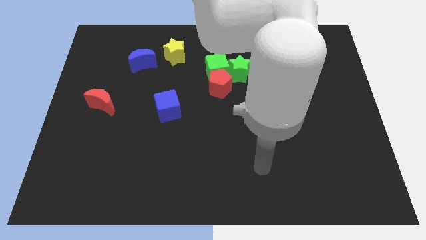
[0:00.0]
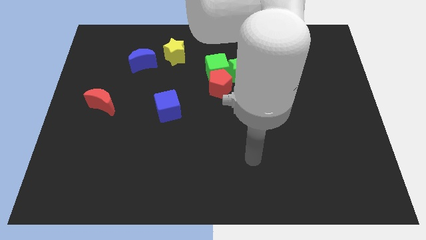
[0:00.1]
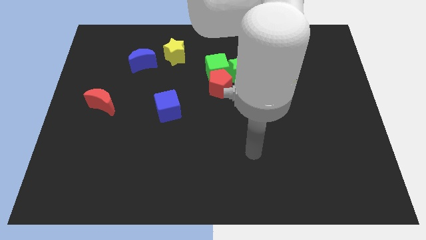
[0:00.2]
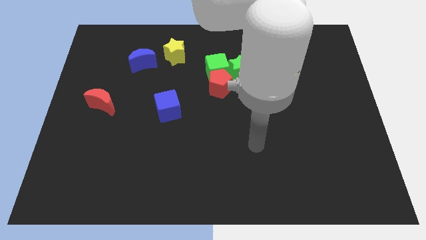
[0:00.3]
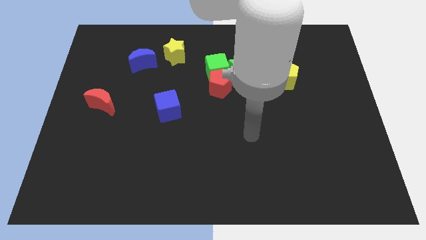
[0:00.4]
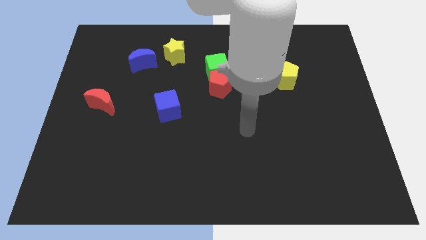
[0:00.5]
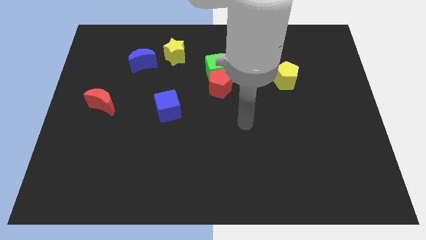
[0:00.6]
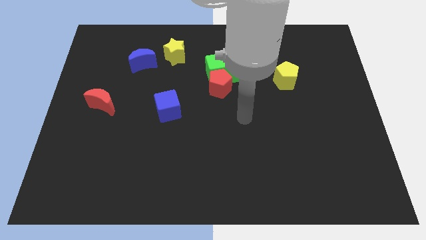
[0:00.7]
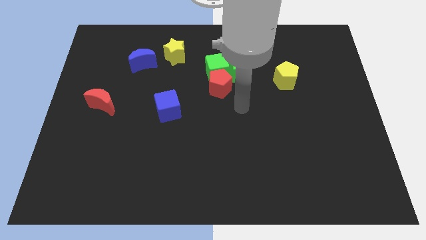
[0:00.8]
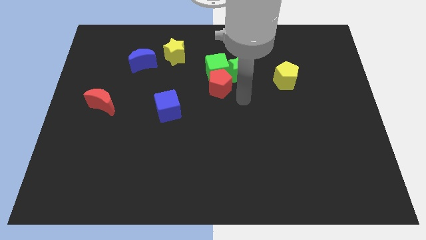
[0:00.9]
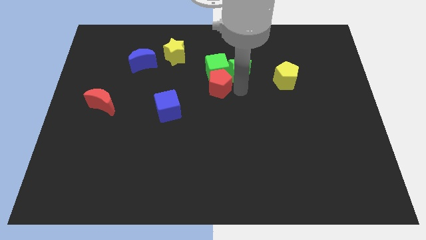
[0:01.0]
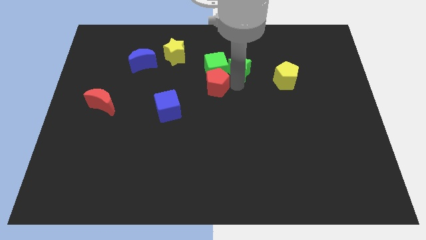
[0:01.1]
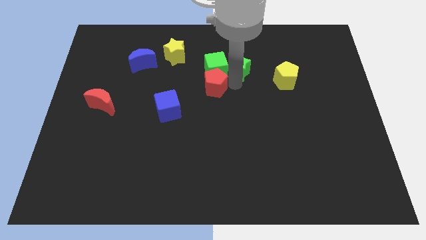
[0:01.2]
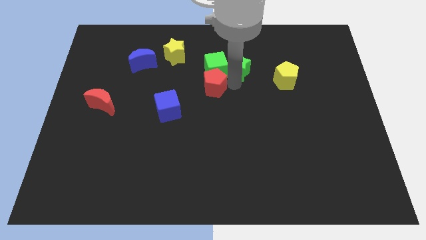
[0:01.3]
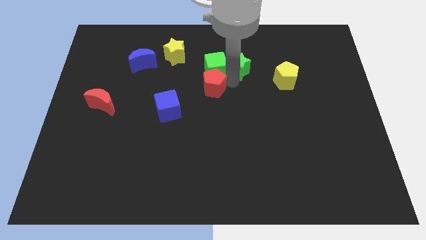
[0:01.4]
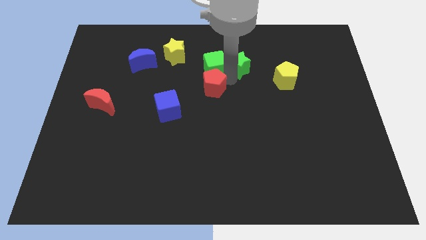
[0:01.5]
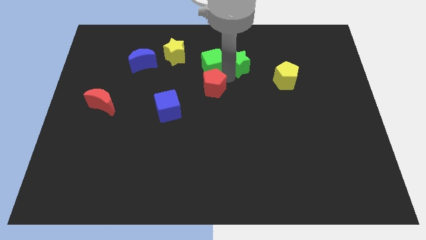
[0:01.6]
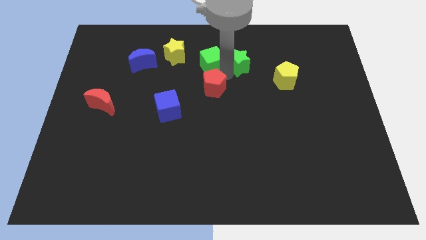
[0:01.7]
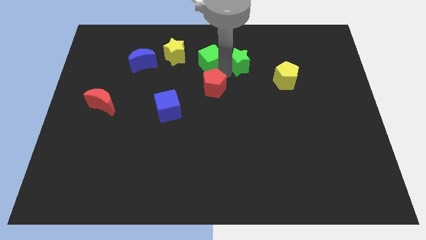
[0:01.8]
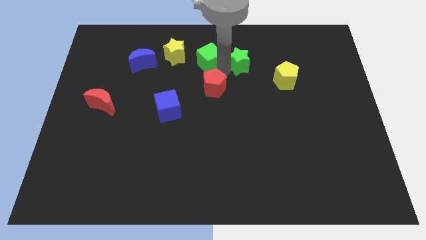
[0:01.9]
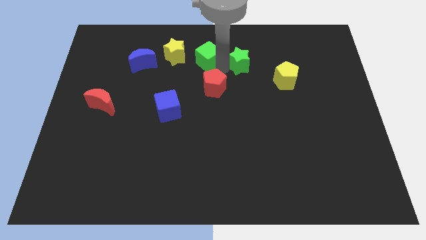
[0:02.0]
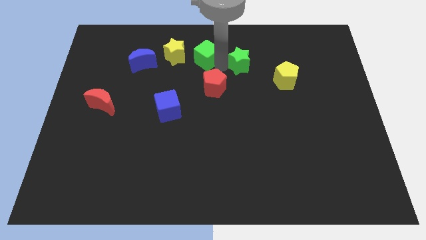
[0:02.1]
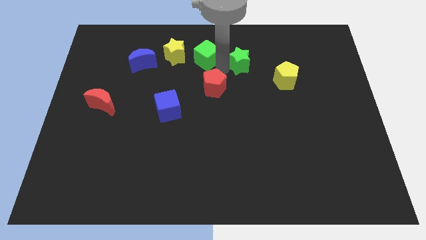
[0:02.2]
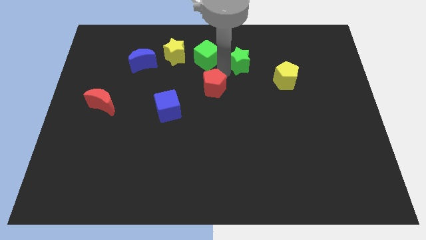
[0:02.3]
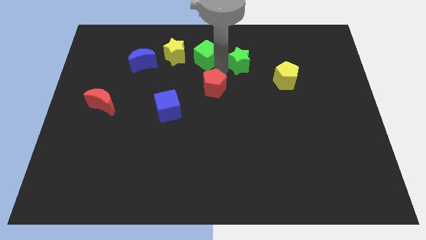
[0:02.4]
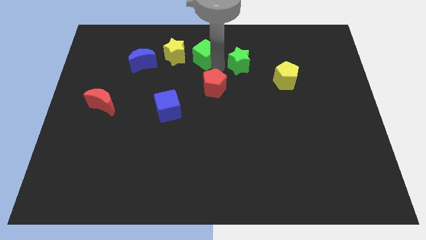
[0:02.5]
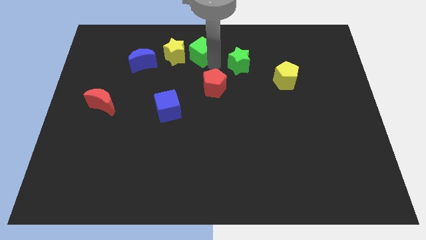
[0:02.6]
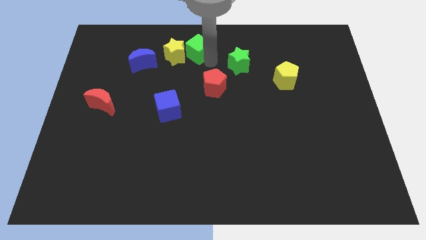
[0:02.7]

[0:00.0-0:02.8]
move the green cube away from the red pentagon and green star

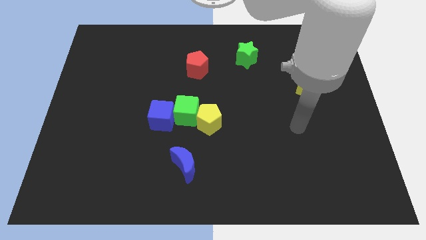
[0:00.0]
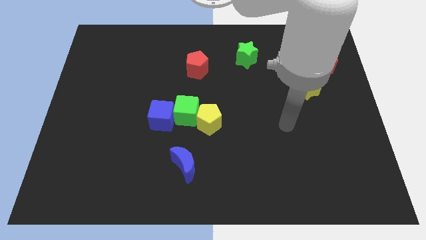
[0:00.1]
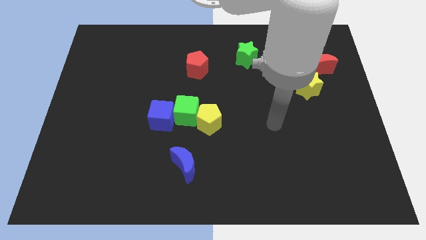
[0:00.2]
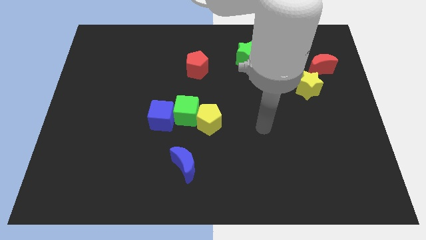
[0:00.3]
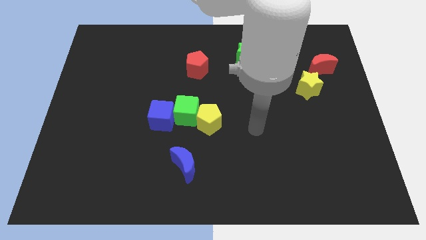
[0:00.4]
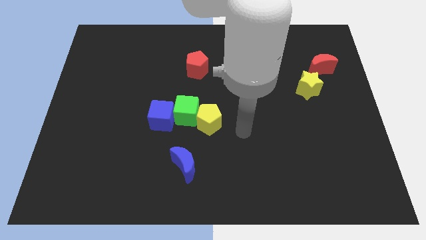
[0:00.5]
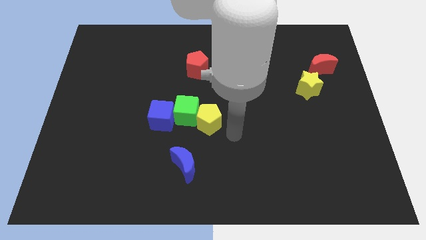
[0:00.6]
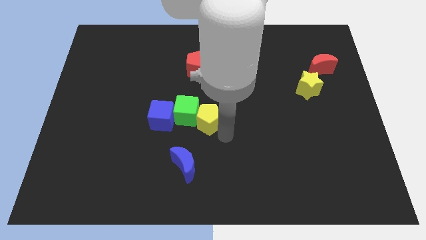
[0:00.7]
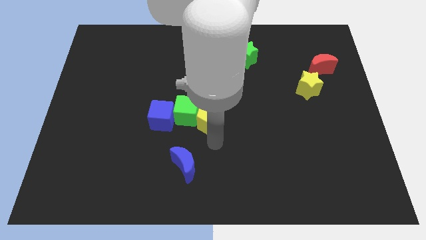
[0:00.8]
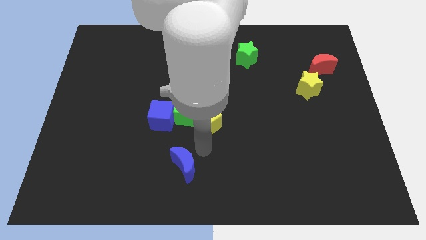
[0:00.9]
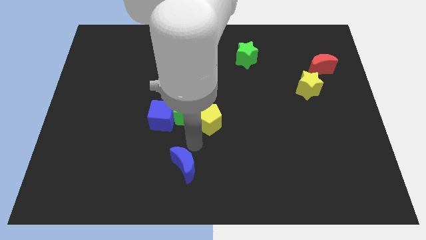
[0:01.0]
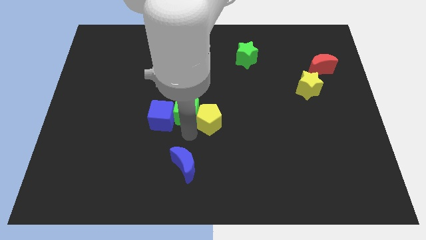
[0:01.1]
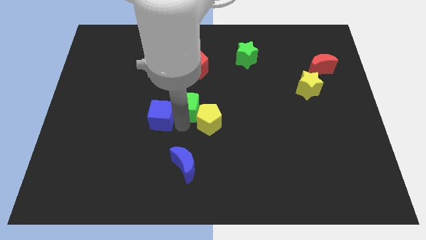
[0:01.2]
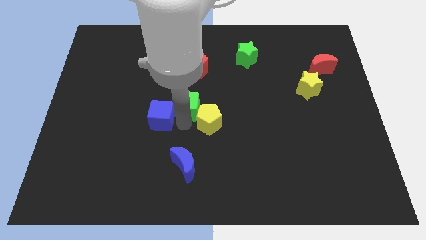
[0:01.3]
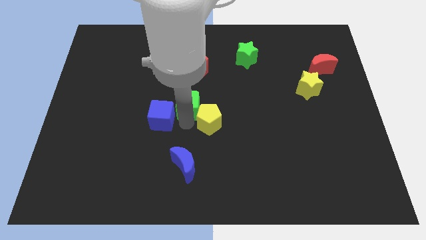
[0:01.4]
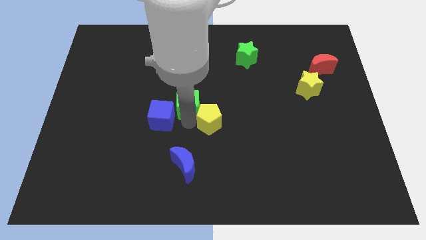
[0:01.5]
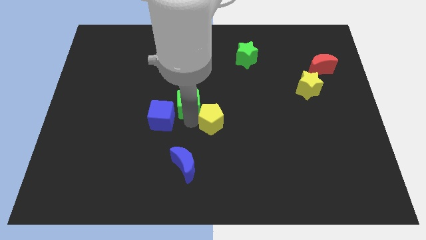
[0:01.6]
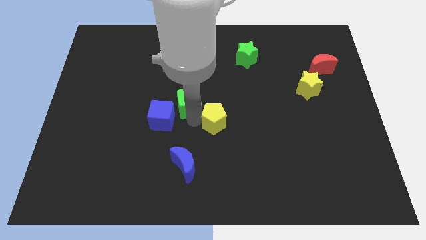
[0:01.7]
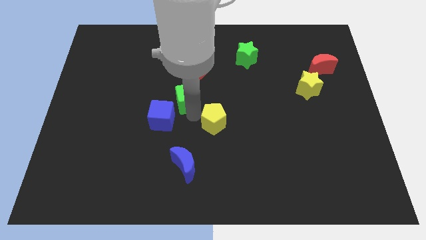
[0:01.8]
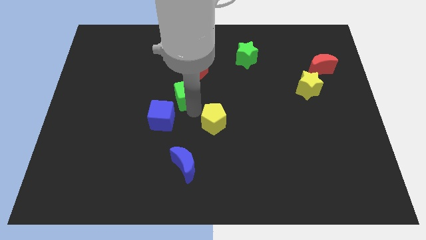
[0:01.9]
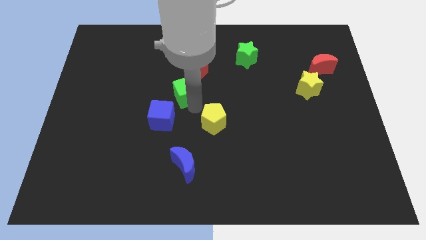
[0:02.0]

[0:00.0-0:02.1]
pull the yellow pentagon apart from the green cube

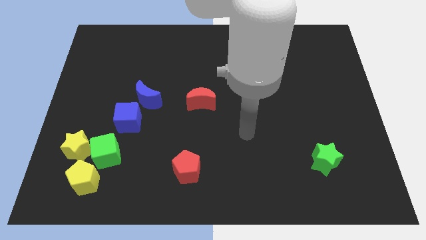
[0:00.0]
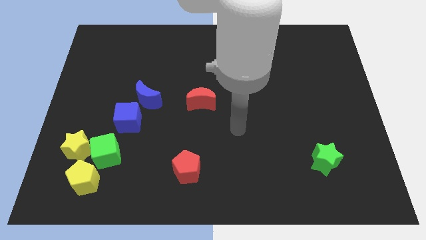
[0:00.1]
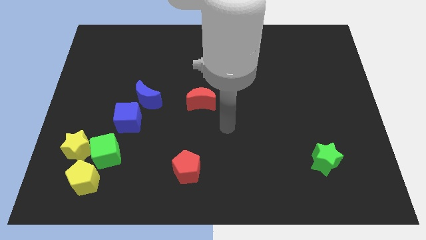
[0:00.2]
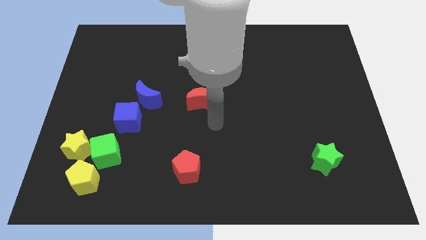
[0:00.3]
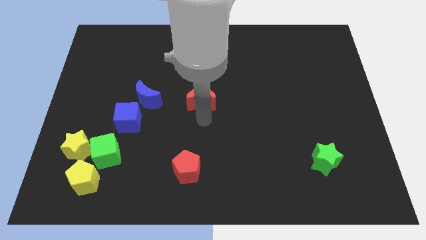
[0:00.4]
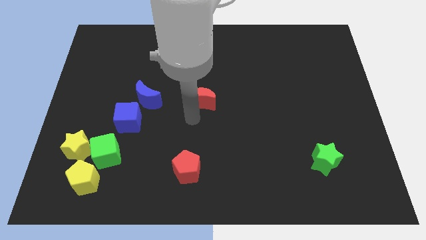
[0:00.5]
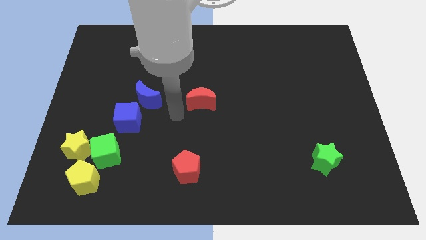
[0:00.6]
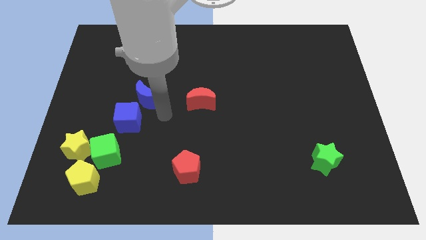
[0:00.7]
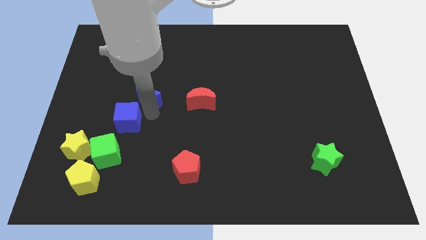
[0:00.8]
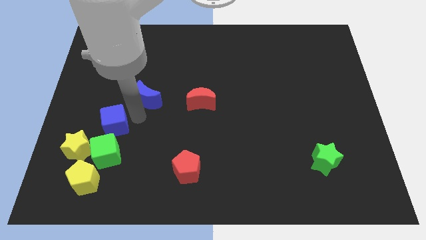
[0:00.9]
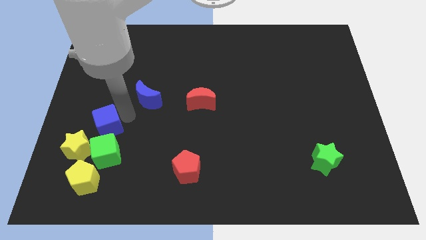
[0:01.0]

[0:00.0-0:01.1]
move the blue moon away from the blue cube

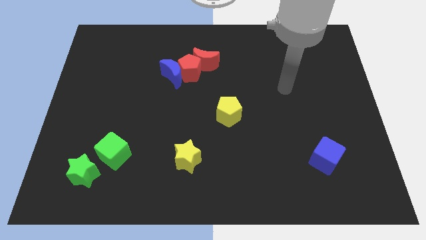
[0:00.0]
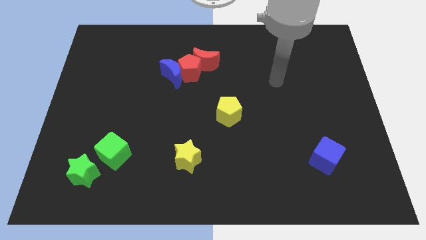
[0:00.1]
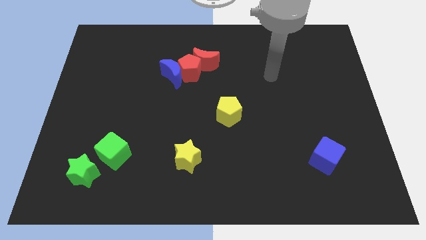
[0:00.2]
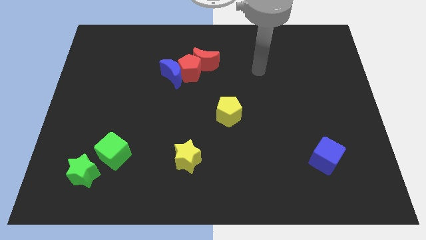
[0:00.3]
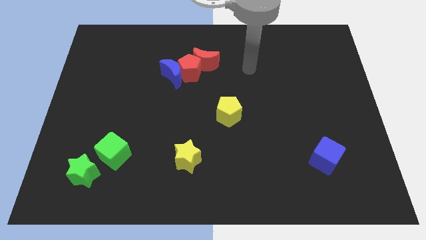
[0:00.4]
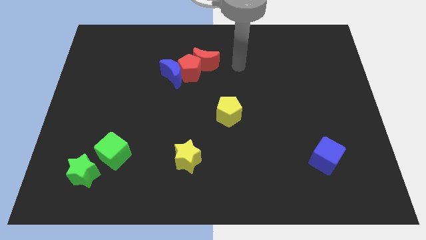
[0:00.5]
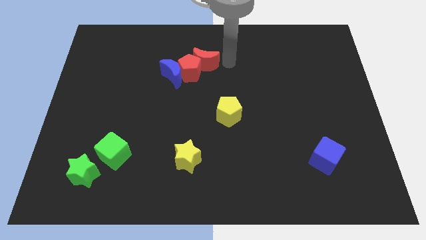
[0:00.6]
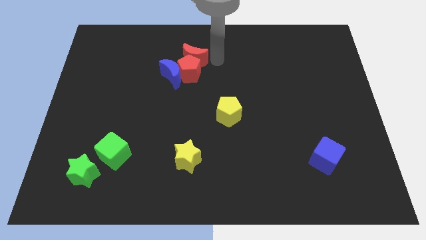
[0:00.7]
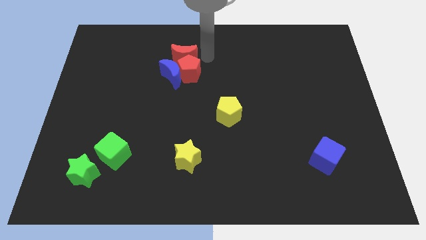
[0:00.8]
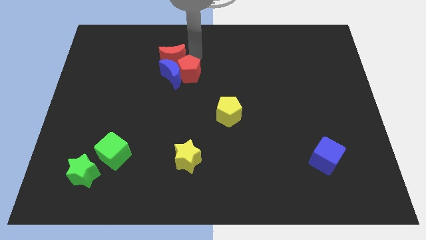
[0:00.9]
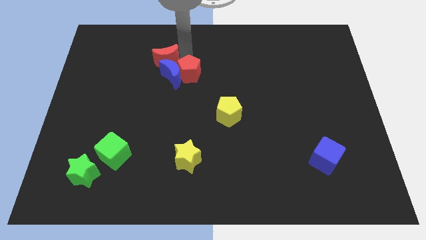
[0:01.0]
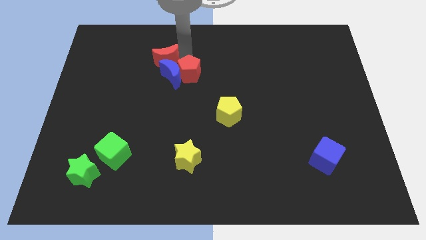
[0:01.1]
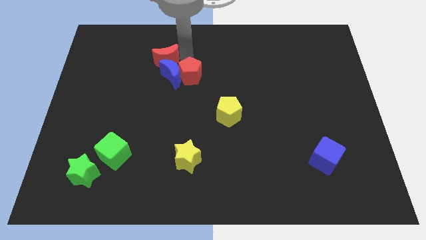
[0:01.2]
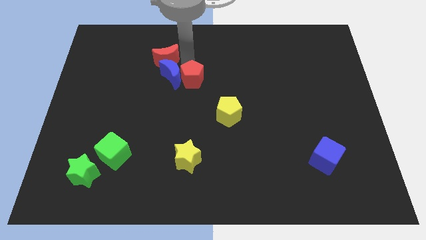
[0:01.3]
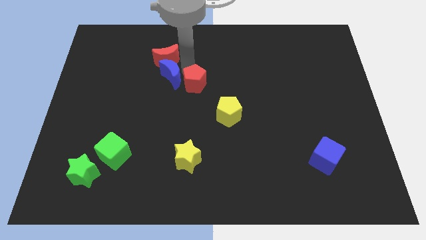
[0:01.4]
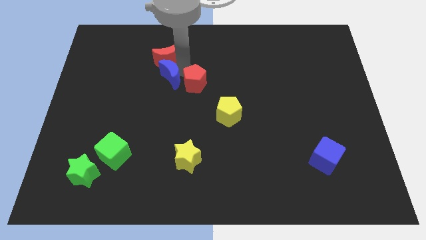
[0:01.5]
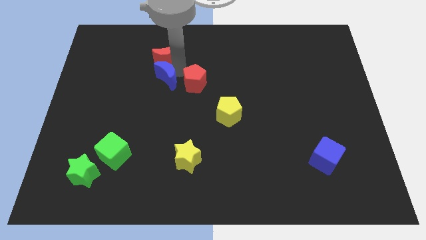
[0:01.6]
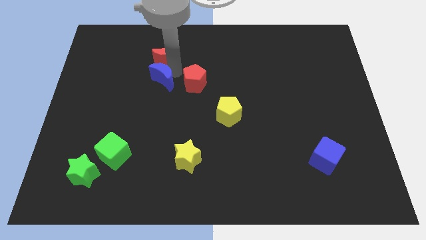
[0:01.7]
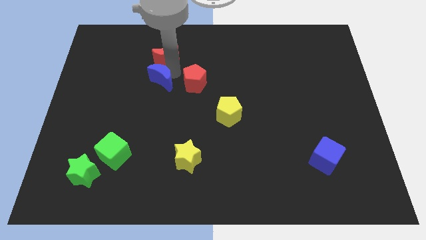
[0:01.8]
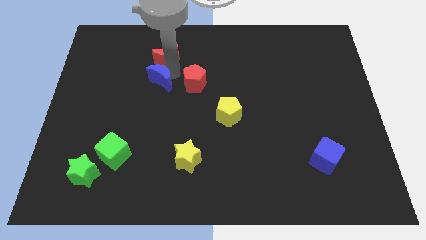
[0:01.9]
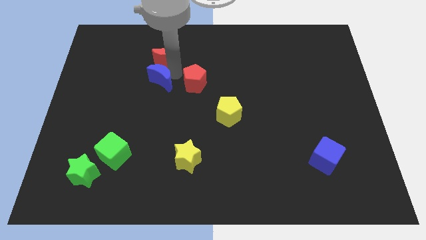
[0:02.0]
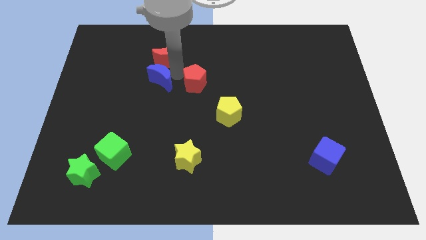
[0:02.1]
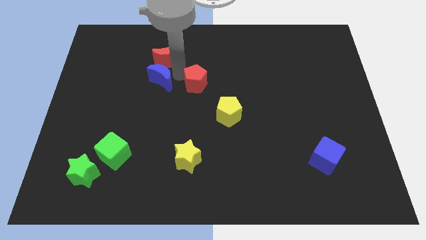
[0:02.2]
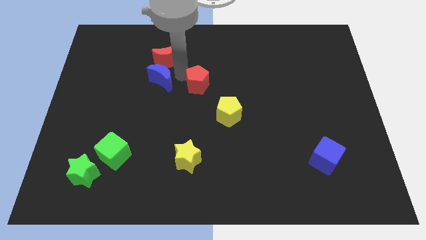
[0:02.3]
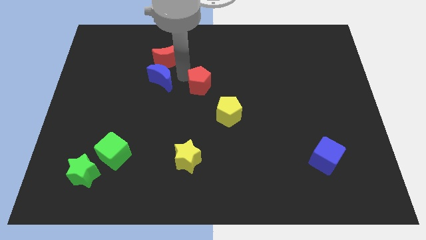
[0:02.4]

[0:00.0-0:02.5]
pull the red pentagon apart from the blue moon and red moon

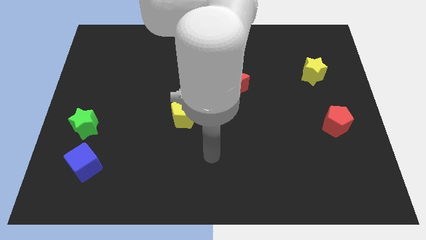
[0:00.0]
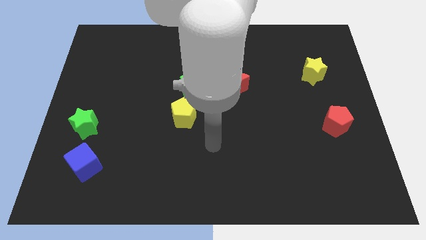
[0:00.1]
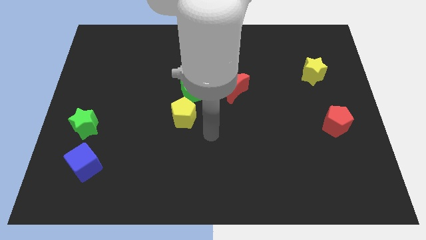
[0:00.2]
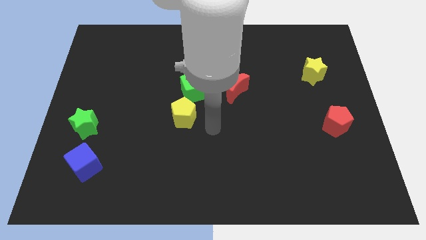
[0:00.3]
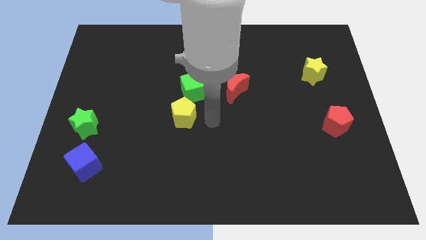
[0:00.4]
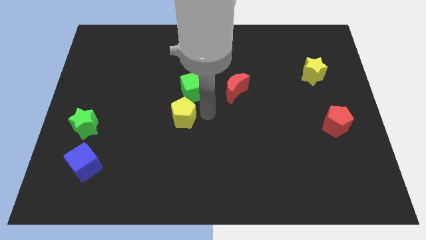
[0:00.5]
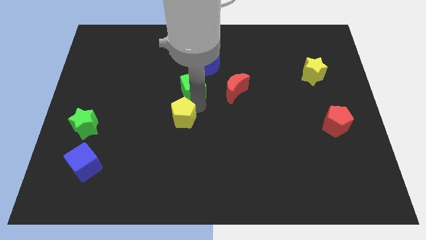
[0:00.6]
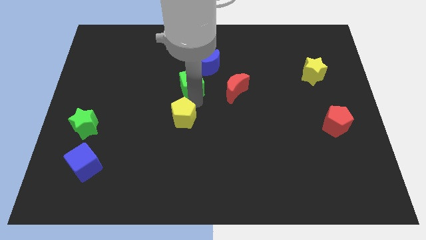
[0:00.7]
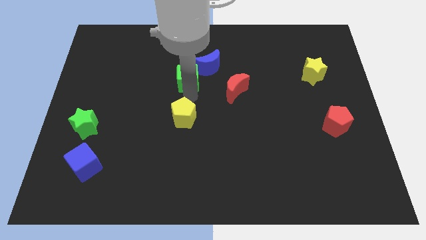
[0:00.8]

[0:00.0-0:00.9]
separate the yellow pentagon from the green cube
